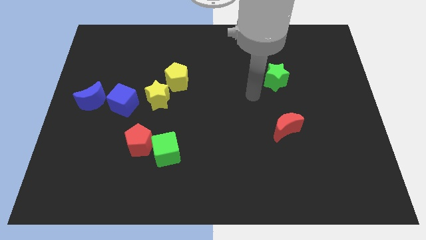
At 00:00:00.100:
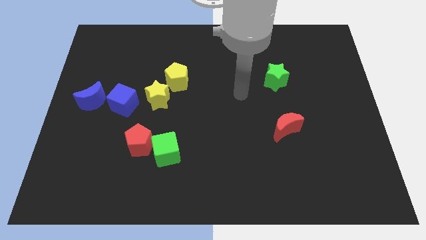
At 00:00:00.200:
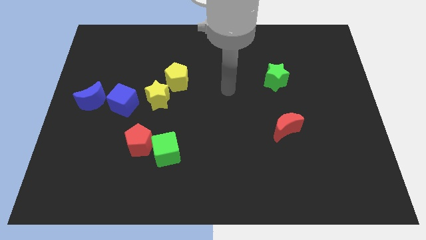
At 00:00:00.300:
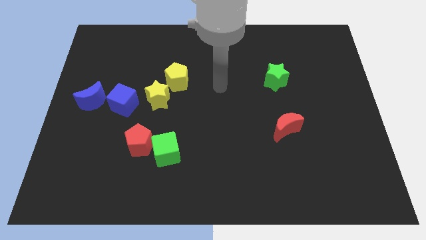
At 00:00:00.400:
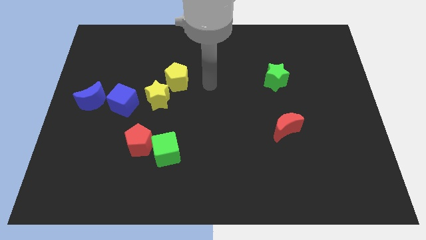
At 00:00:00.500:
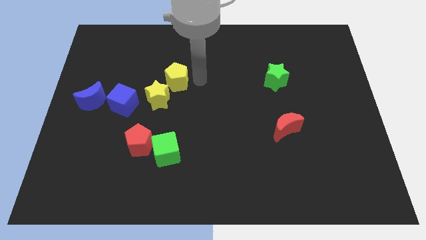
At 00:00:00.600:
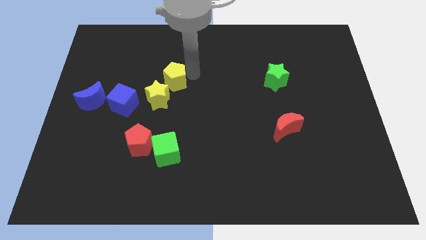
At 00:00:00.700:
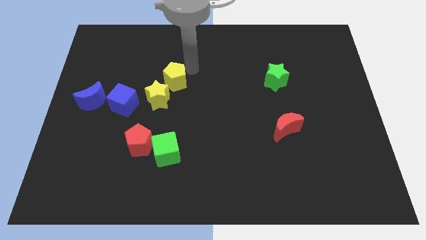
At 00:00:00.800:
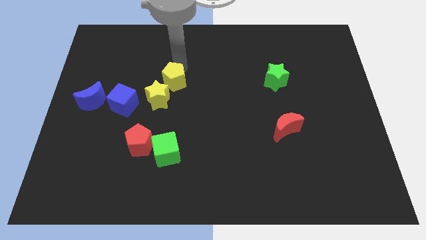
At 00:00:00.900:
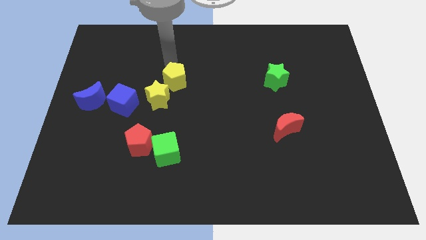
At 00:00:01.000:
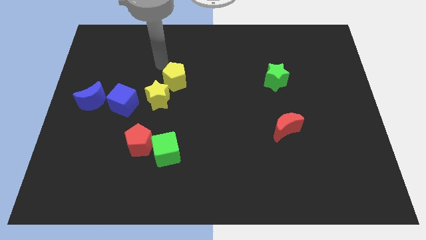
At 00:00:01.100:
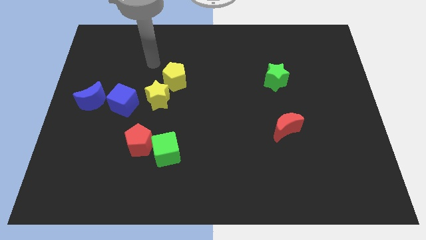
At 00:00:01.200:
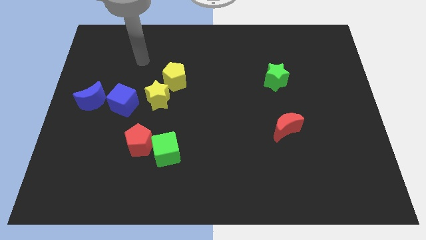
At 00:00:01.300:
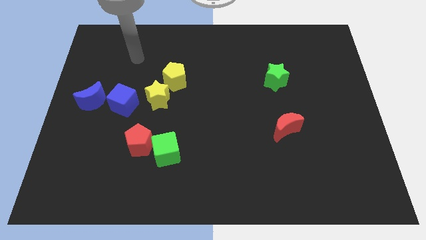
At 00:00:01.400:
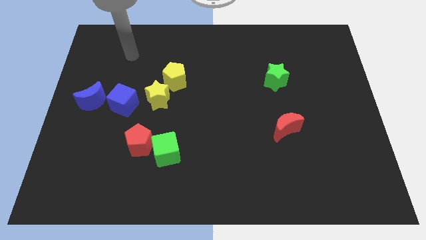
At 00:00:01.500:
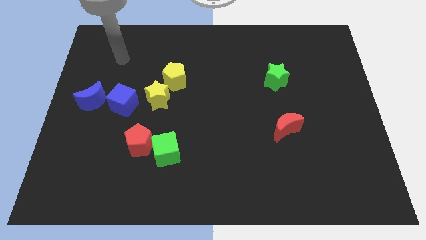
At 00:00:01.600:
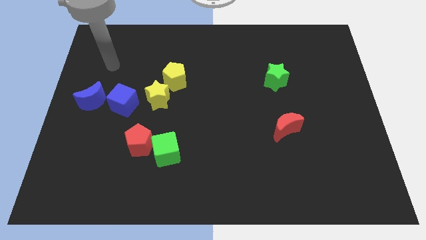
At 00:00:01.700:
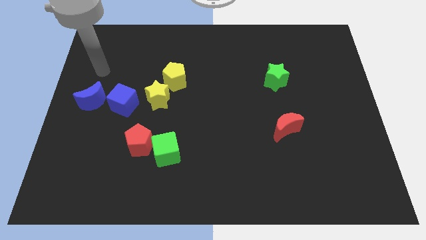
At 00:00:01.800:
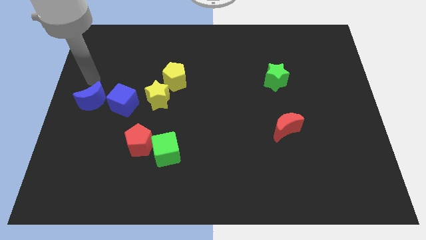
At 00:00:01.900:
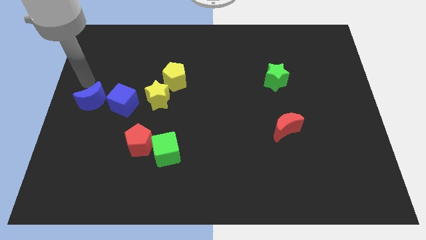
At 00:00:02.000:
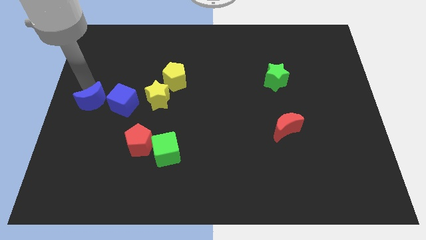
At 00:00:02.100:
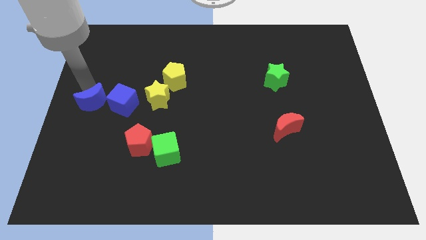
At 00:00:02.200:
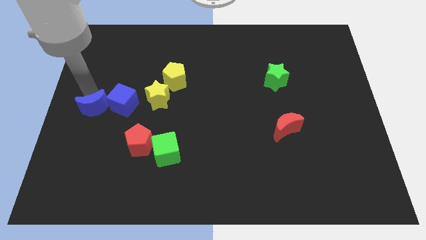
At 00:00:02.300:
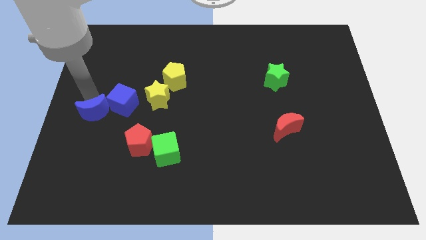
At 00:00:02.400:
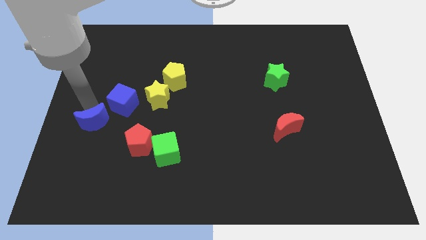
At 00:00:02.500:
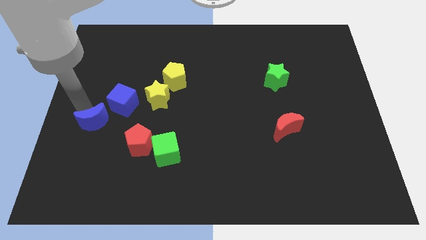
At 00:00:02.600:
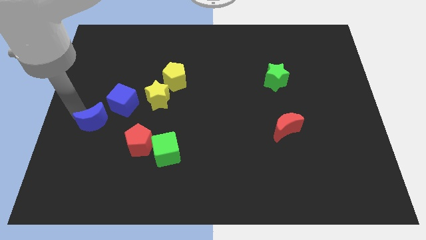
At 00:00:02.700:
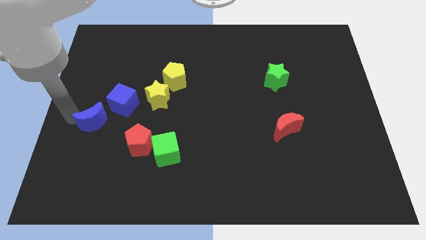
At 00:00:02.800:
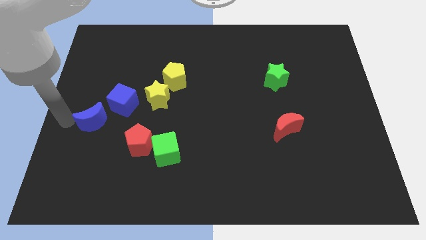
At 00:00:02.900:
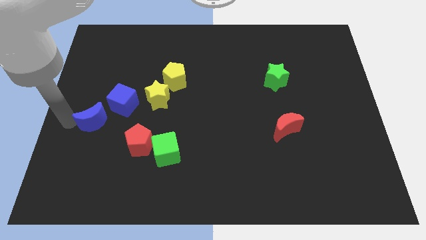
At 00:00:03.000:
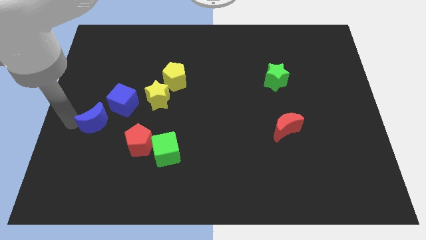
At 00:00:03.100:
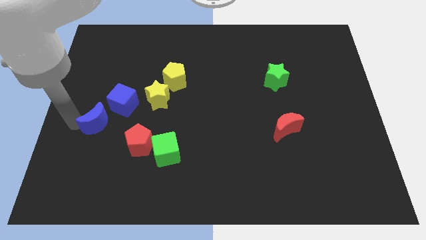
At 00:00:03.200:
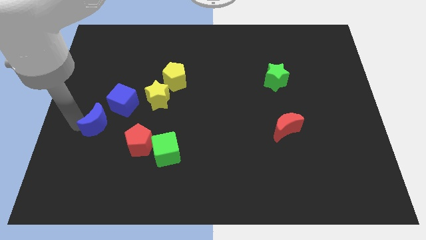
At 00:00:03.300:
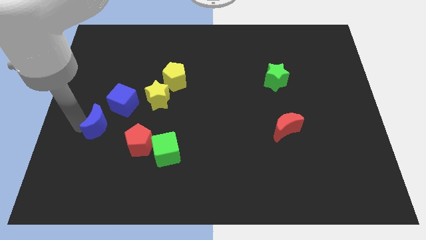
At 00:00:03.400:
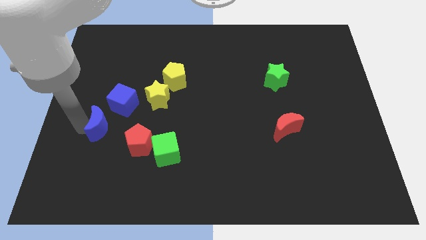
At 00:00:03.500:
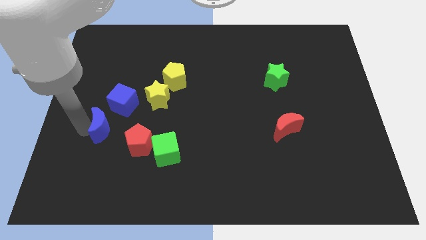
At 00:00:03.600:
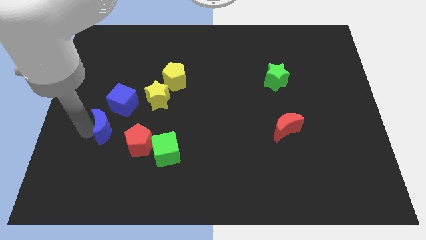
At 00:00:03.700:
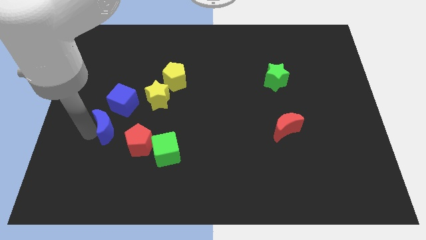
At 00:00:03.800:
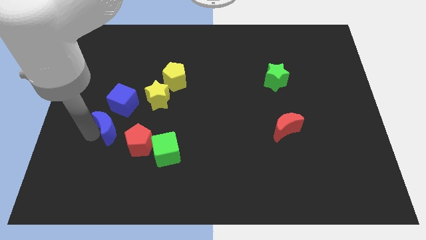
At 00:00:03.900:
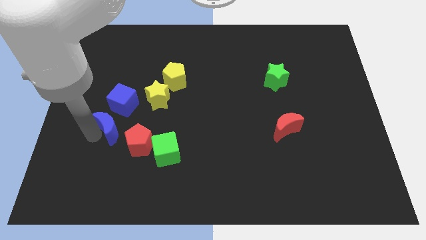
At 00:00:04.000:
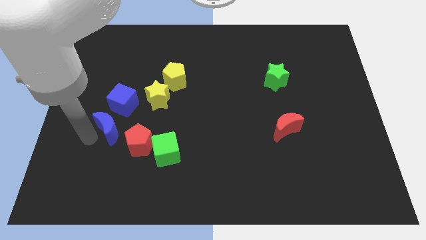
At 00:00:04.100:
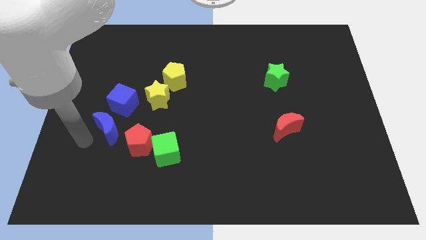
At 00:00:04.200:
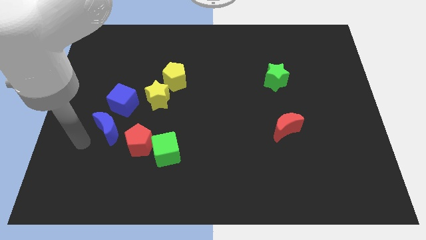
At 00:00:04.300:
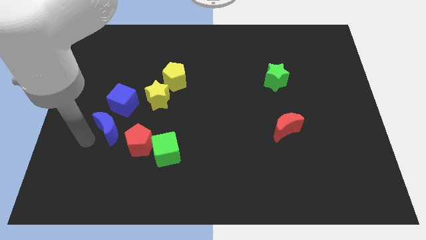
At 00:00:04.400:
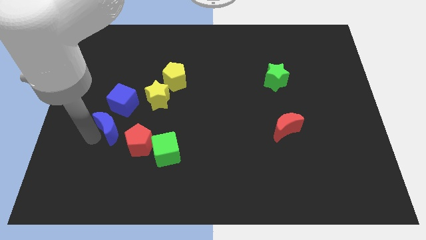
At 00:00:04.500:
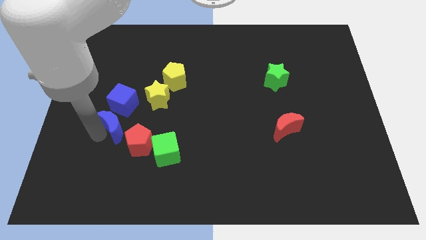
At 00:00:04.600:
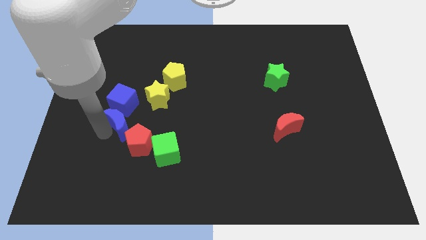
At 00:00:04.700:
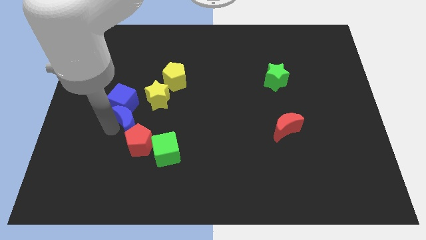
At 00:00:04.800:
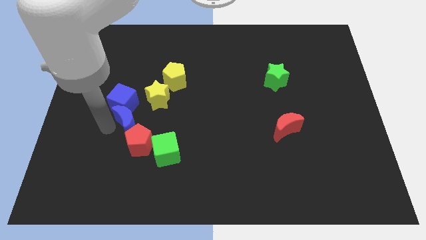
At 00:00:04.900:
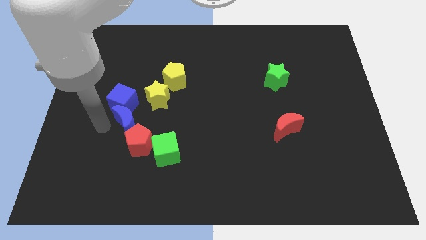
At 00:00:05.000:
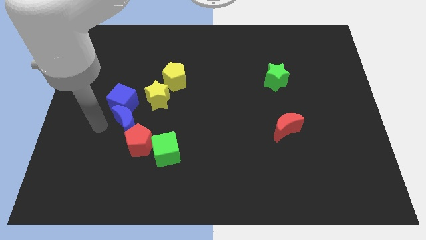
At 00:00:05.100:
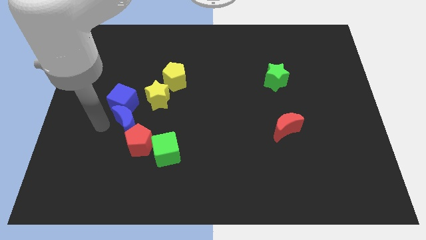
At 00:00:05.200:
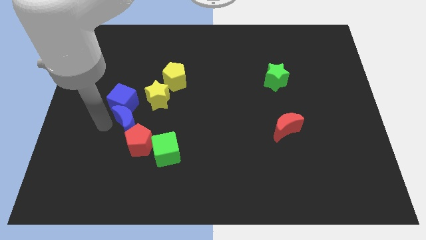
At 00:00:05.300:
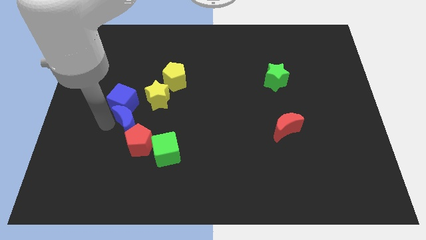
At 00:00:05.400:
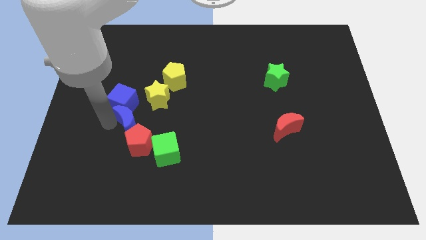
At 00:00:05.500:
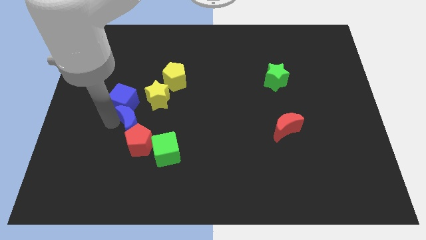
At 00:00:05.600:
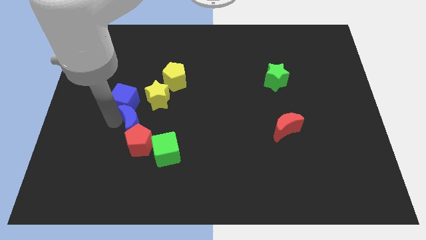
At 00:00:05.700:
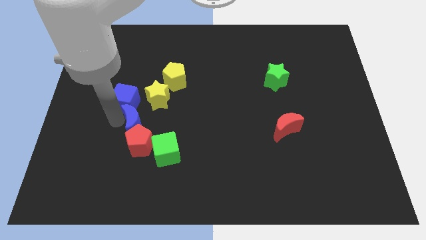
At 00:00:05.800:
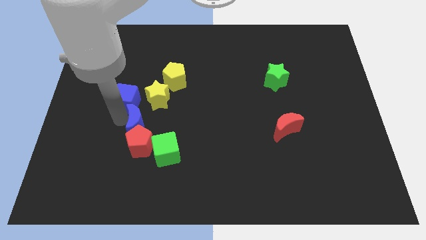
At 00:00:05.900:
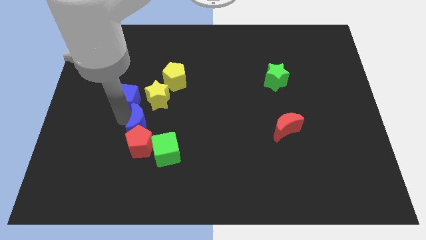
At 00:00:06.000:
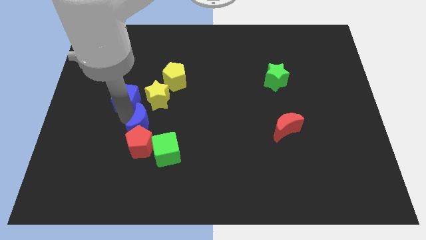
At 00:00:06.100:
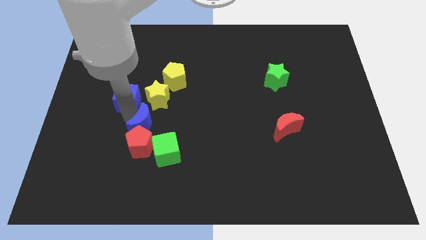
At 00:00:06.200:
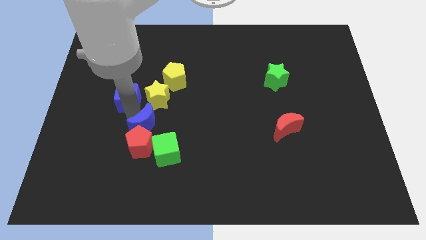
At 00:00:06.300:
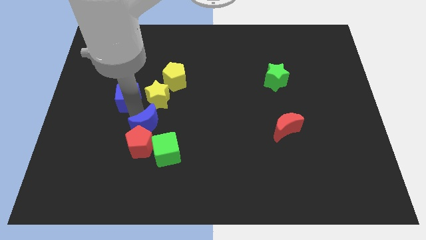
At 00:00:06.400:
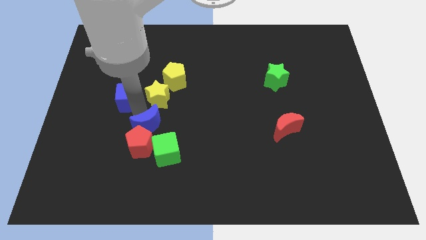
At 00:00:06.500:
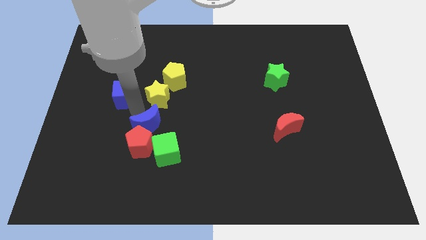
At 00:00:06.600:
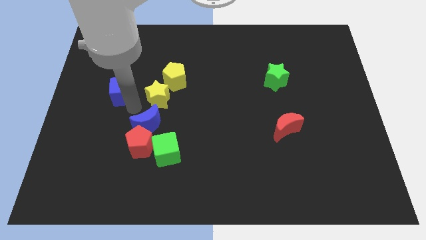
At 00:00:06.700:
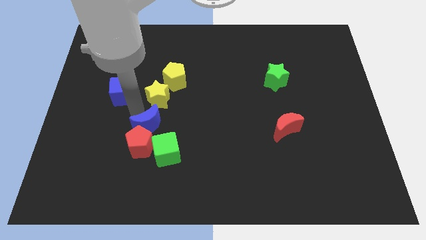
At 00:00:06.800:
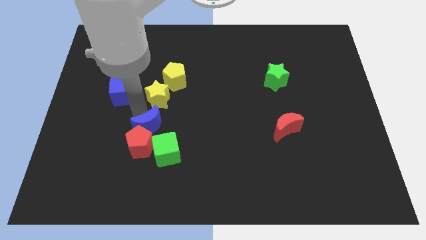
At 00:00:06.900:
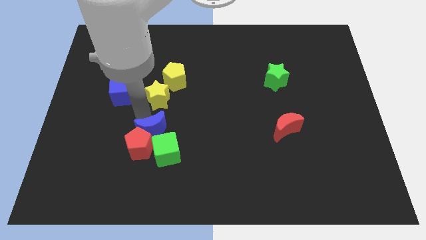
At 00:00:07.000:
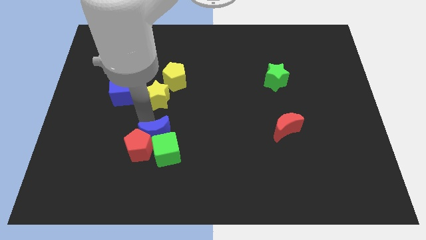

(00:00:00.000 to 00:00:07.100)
push the blue moon next to the green cube
